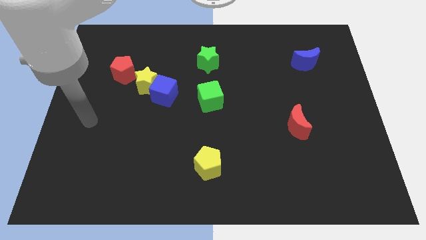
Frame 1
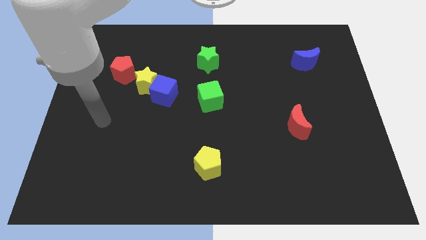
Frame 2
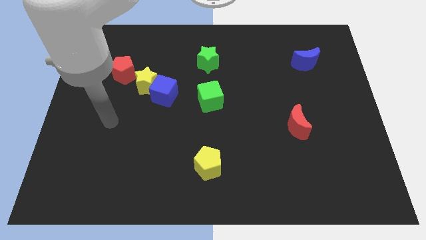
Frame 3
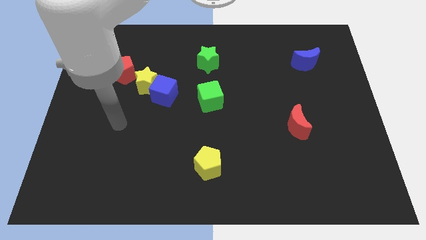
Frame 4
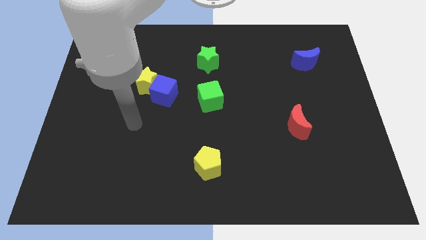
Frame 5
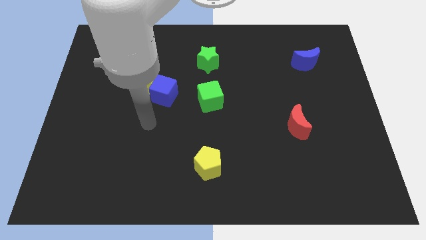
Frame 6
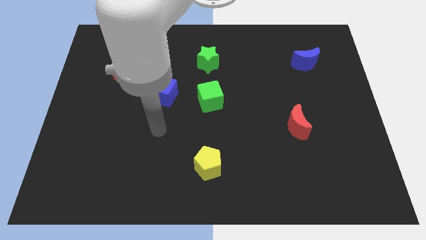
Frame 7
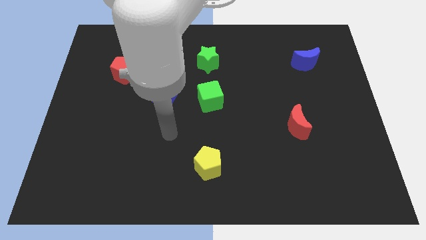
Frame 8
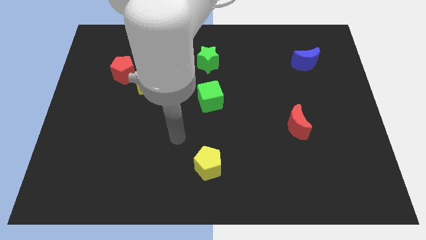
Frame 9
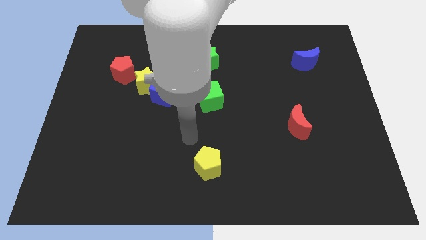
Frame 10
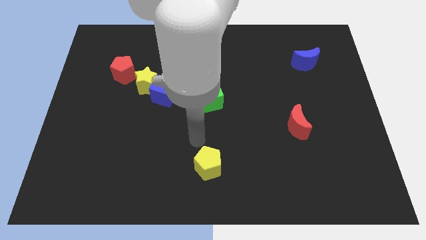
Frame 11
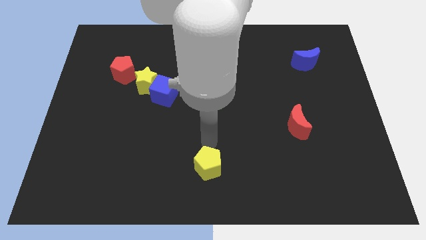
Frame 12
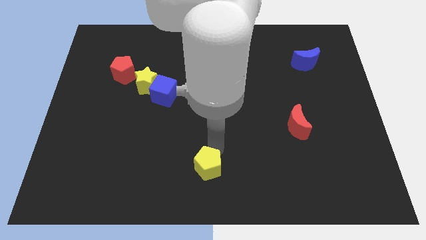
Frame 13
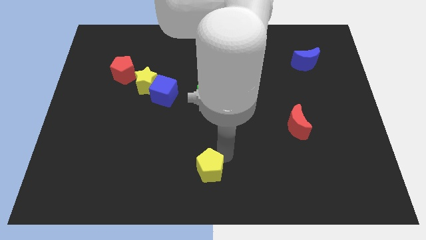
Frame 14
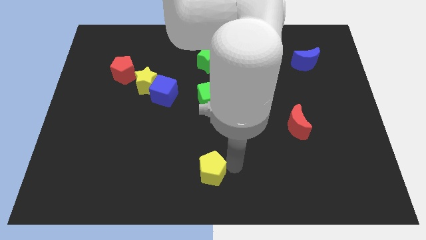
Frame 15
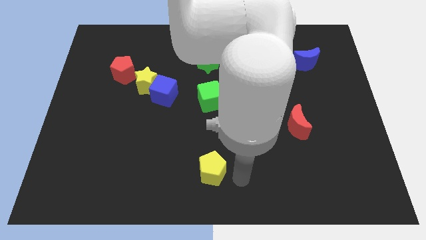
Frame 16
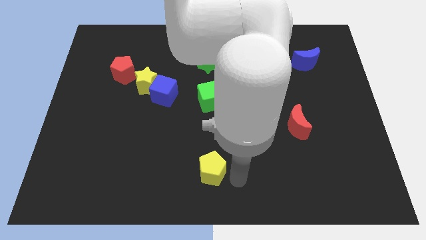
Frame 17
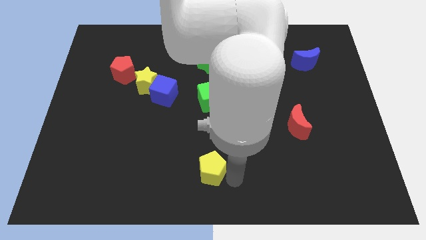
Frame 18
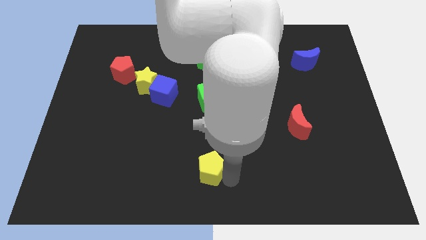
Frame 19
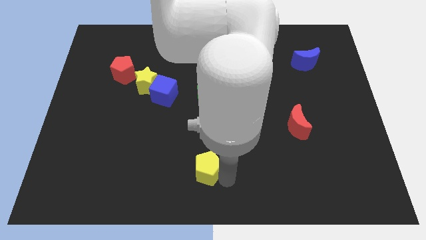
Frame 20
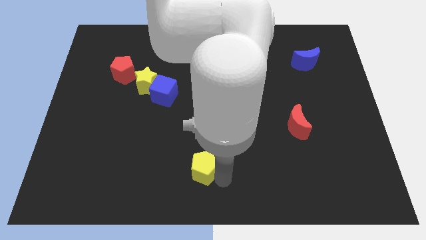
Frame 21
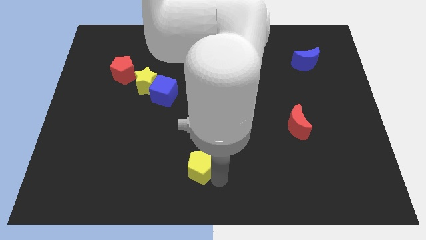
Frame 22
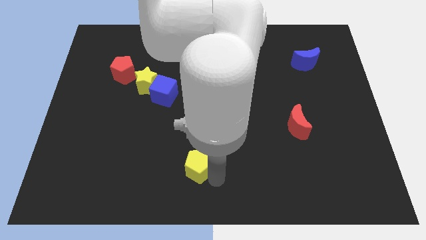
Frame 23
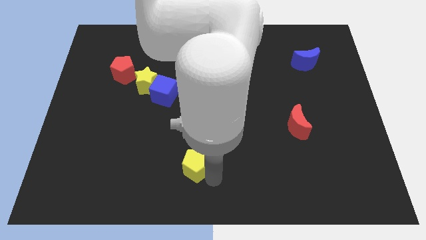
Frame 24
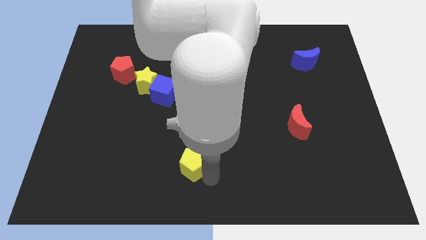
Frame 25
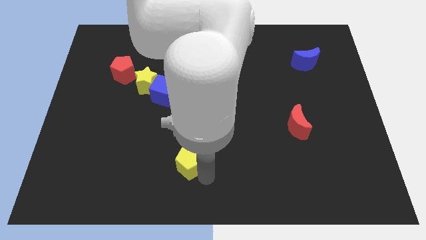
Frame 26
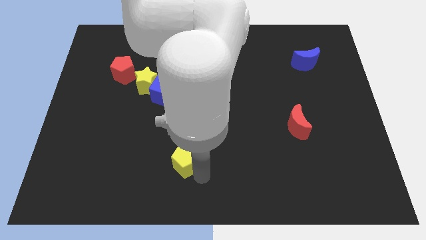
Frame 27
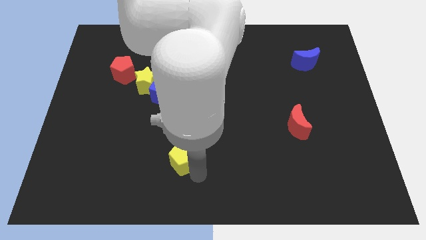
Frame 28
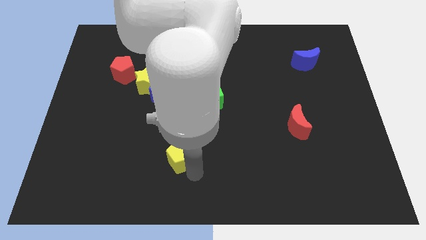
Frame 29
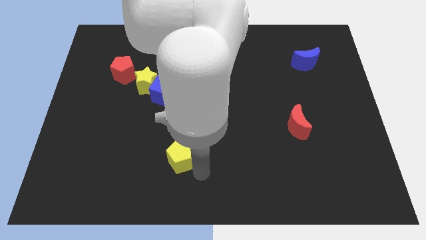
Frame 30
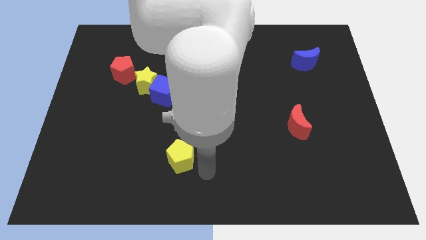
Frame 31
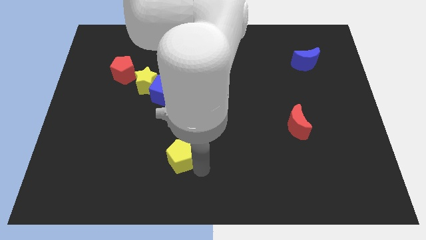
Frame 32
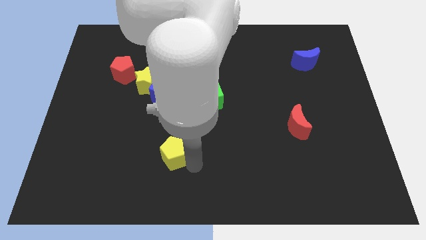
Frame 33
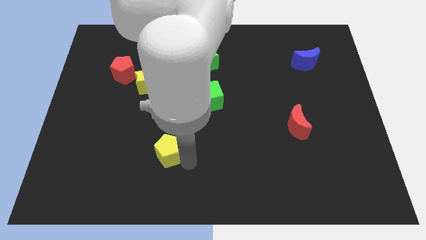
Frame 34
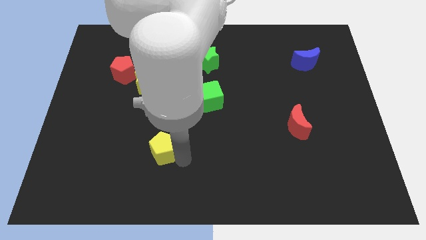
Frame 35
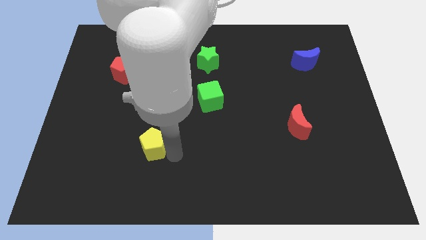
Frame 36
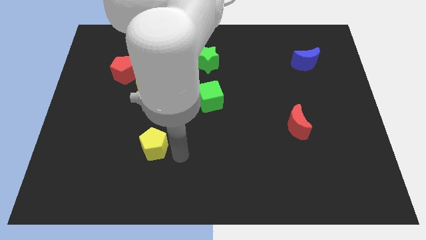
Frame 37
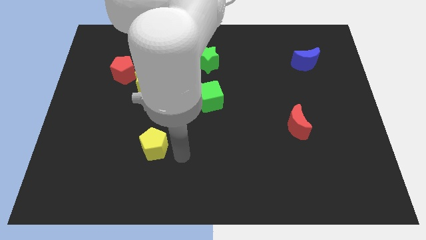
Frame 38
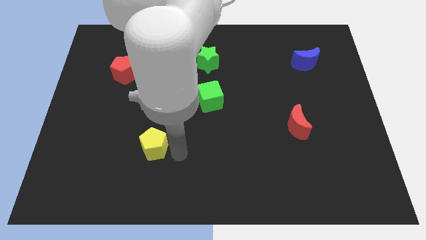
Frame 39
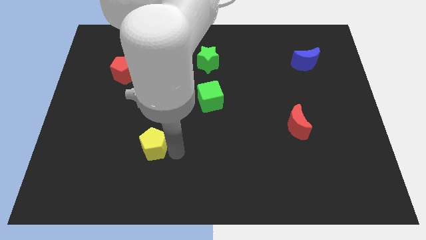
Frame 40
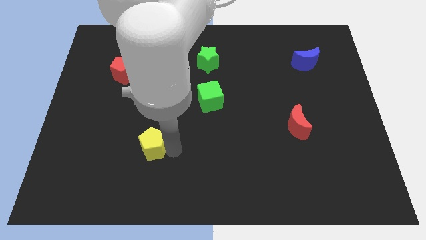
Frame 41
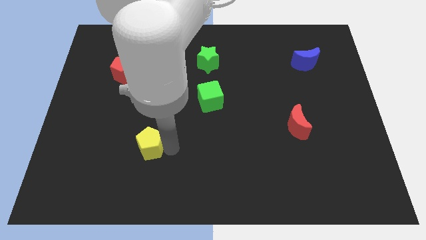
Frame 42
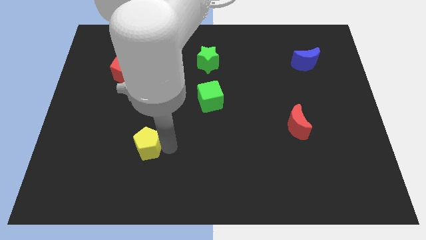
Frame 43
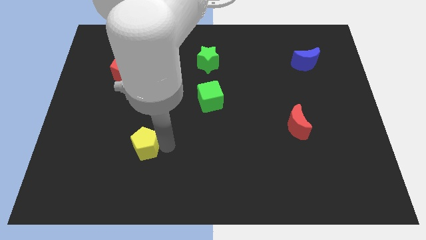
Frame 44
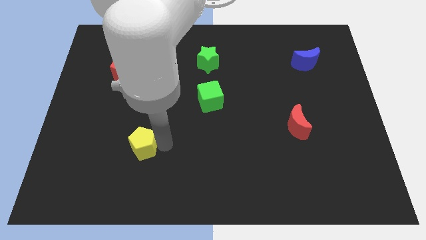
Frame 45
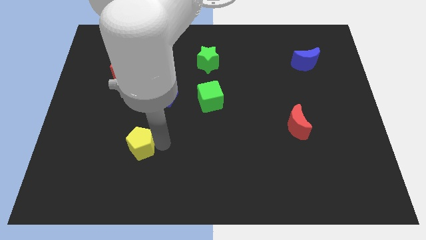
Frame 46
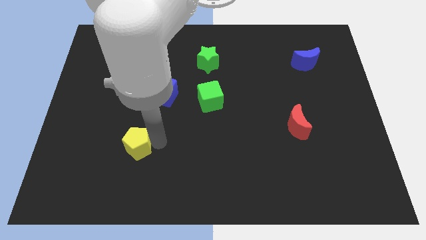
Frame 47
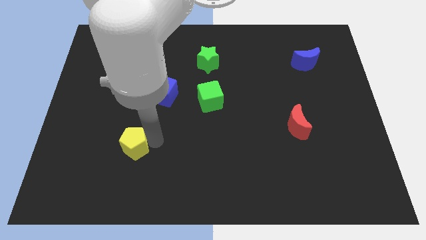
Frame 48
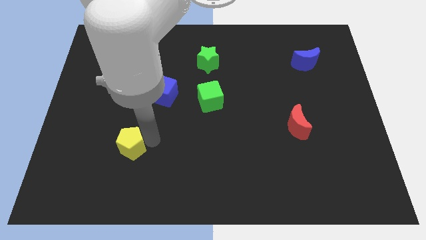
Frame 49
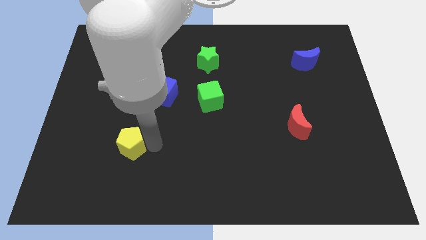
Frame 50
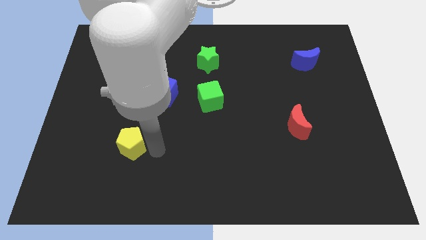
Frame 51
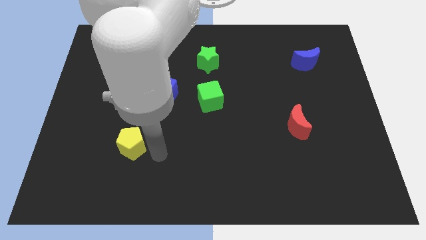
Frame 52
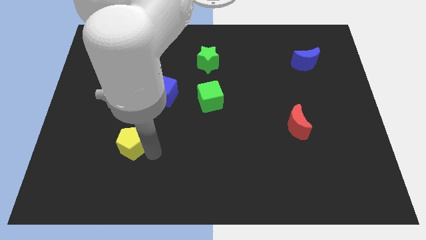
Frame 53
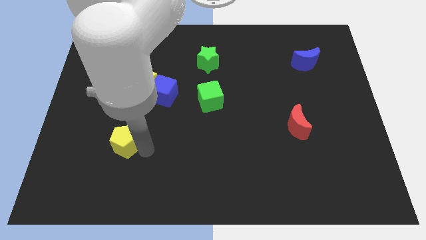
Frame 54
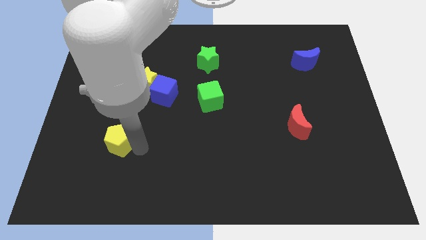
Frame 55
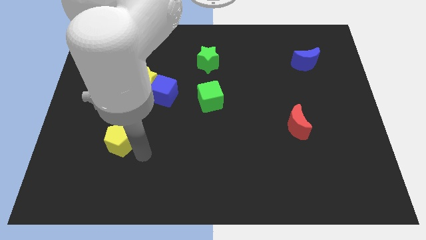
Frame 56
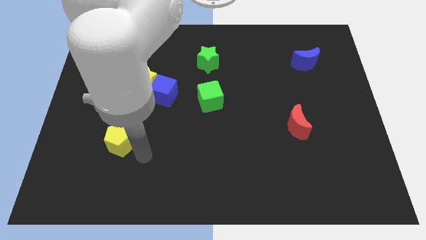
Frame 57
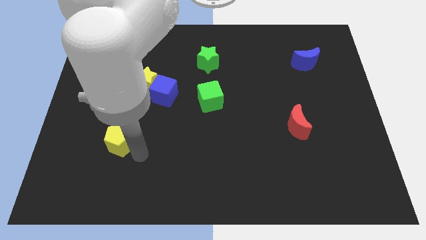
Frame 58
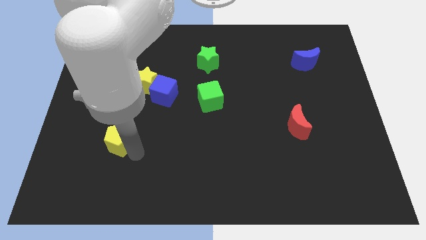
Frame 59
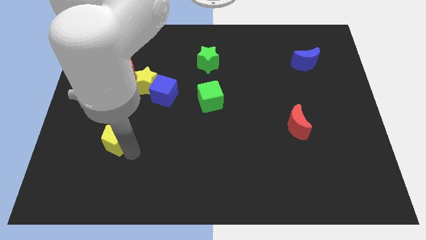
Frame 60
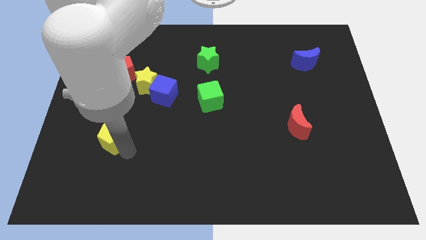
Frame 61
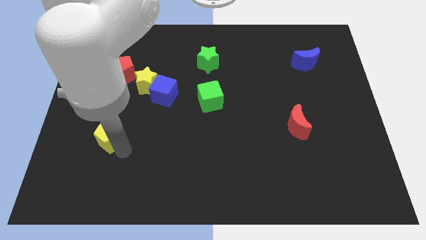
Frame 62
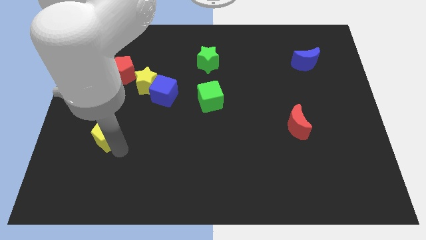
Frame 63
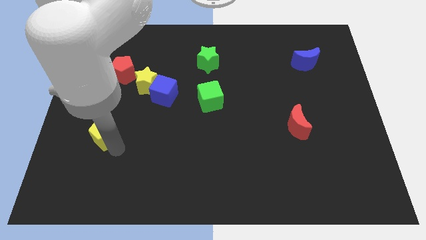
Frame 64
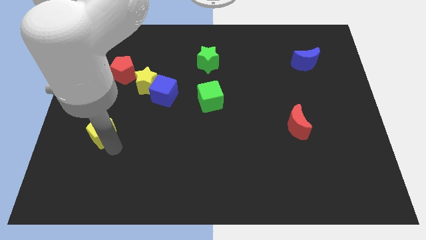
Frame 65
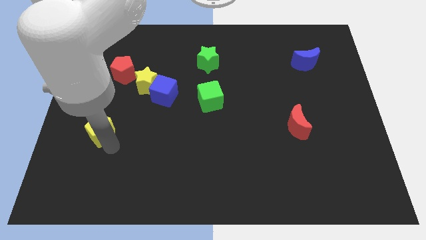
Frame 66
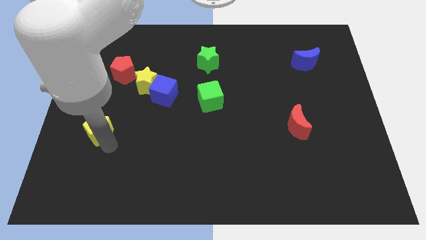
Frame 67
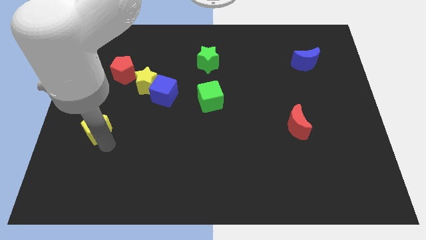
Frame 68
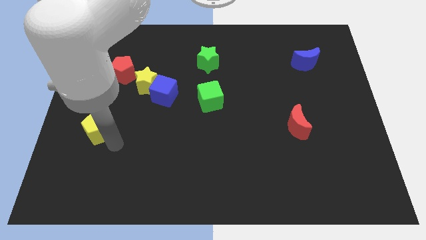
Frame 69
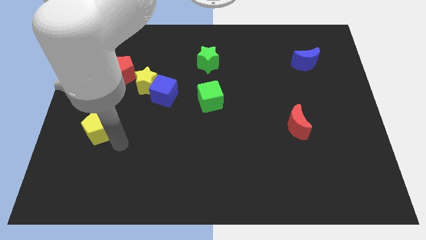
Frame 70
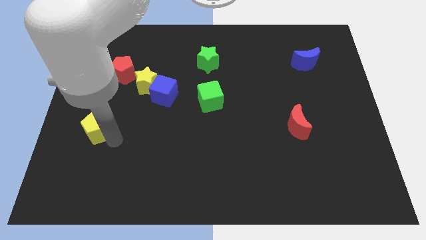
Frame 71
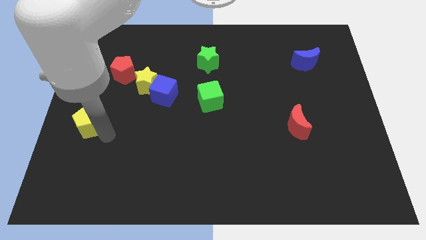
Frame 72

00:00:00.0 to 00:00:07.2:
slide the yellow pentagon to the left side of the board
